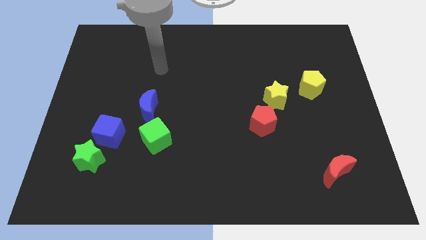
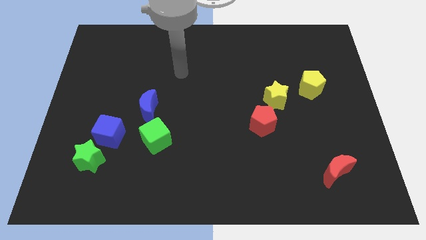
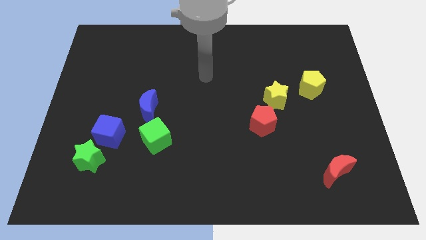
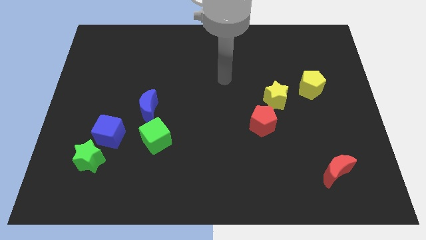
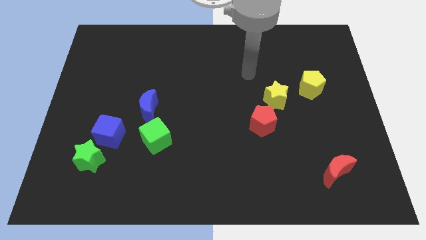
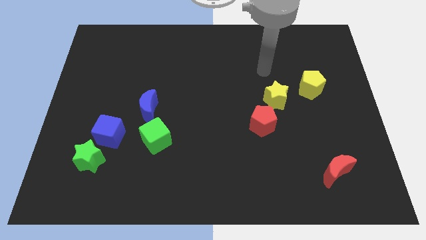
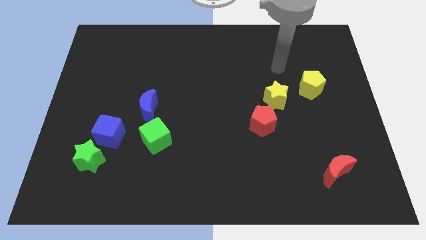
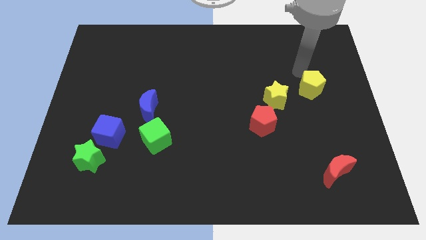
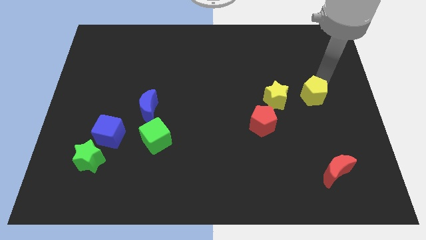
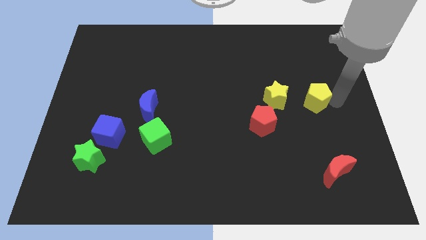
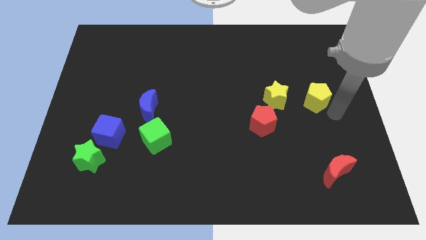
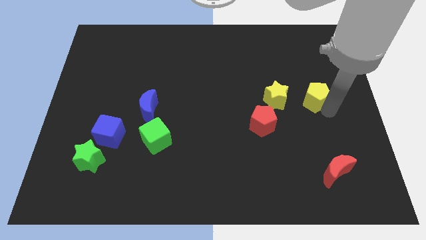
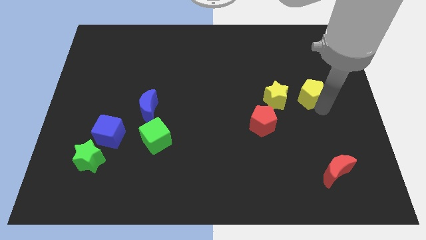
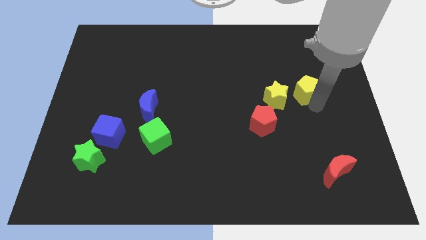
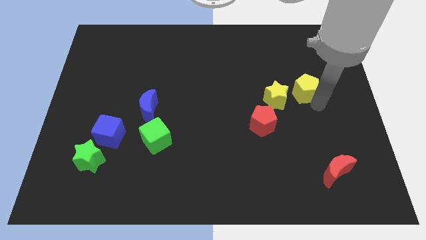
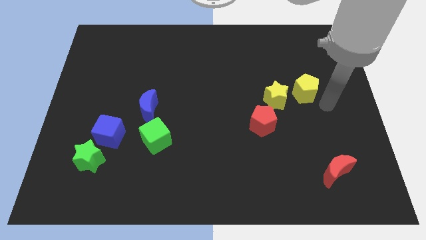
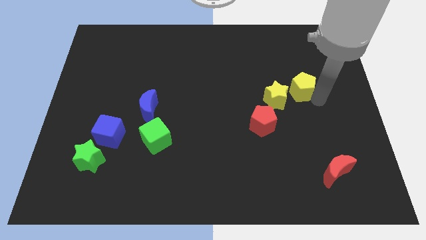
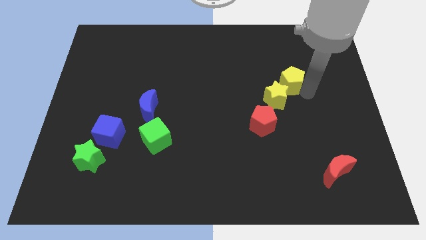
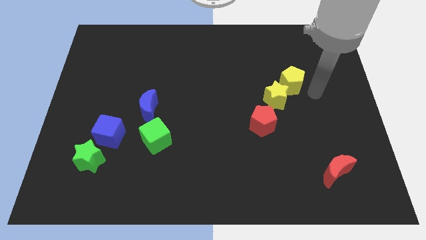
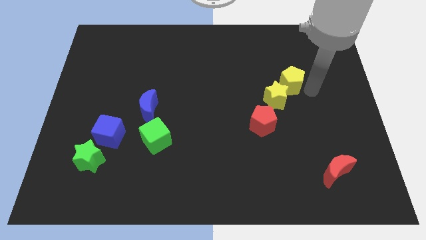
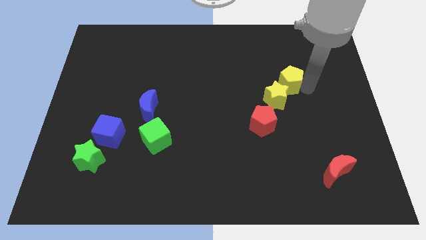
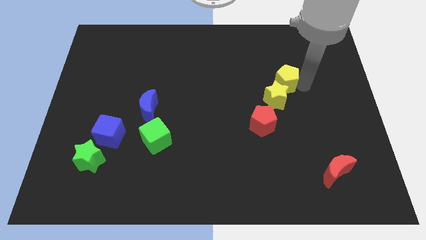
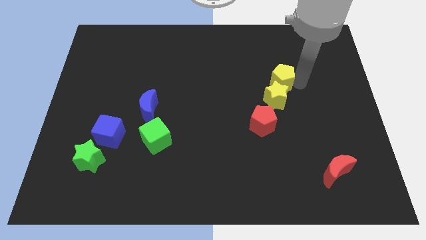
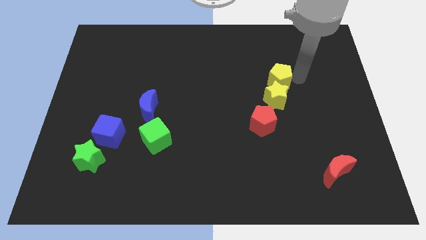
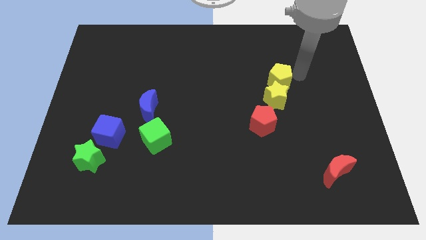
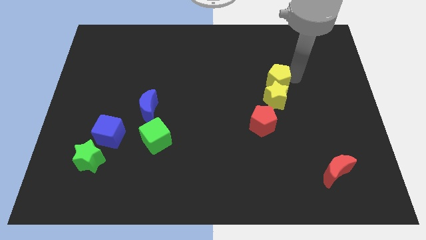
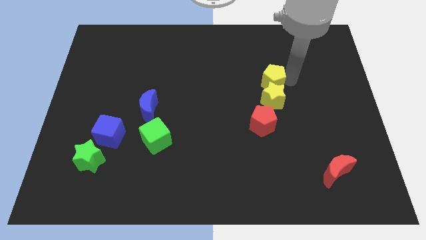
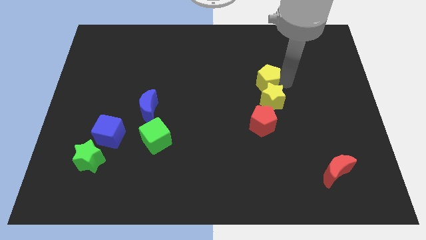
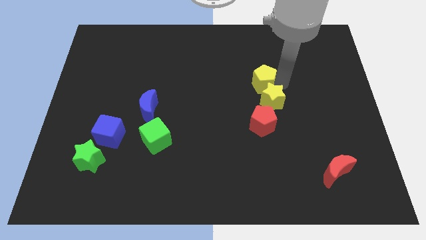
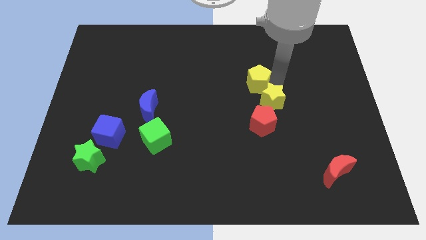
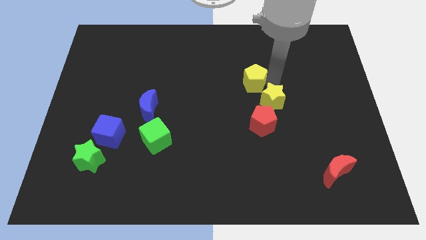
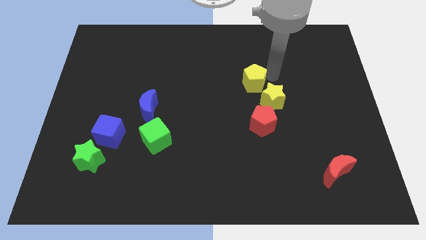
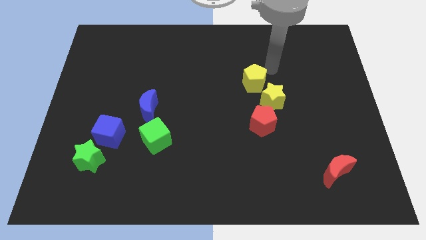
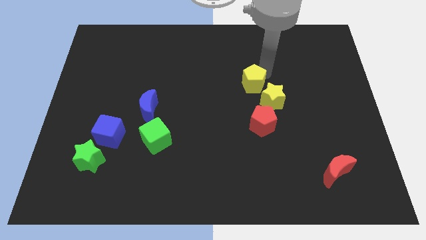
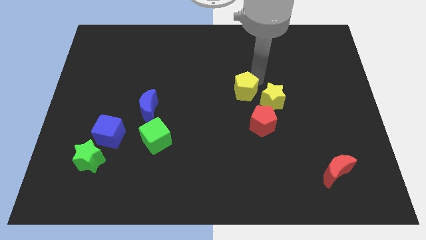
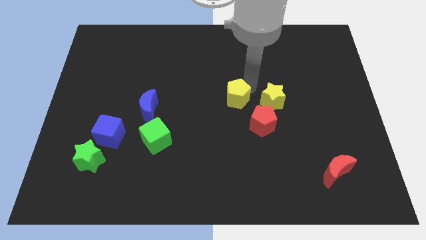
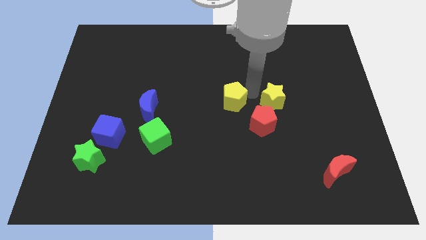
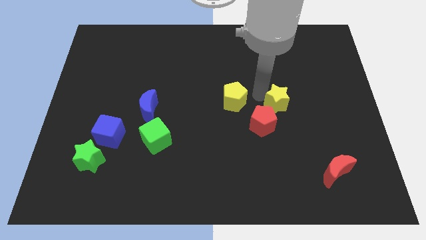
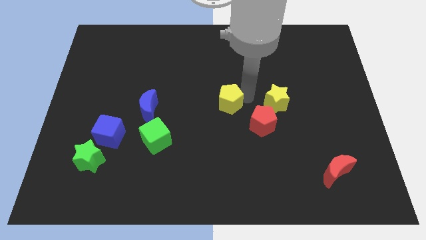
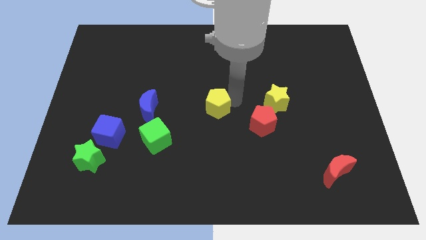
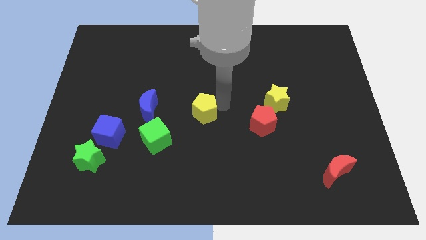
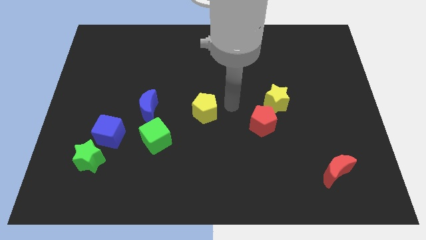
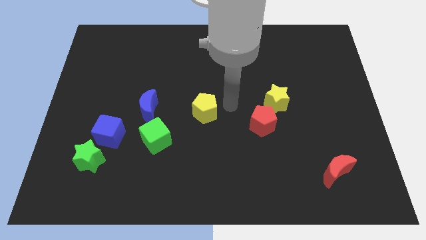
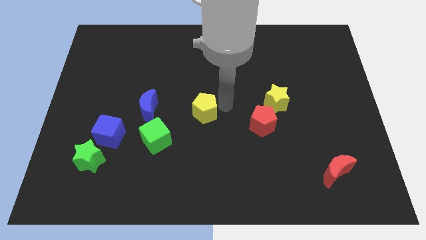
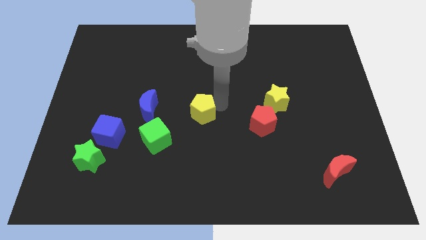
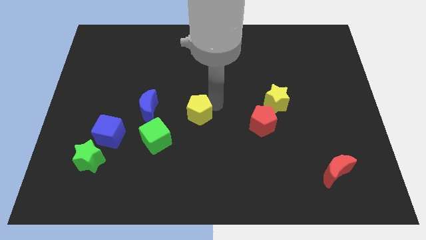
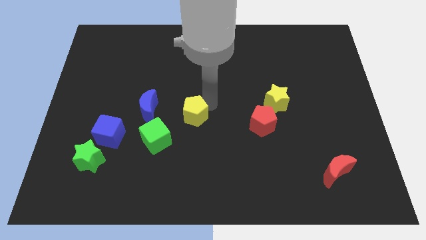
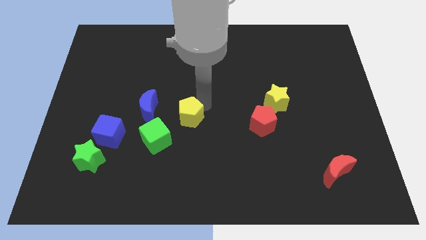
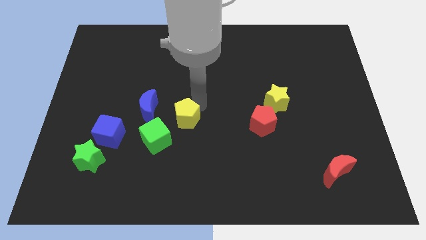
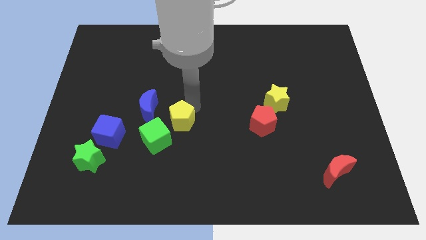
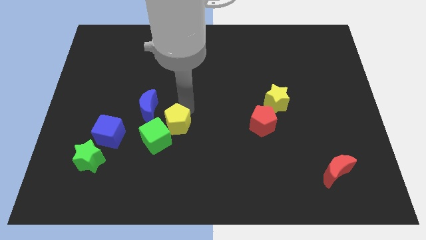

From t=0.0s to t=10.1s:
slide the yellow pentagon close to the green cube

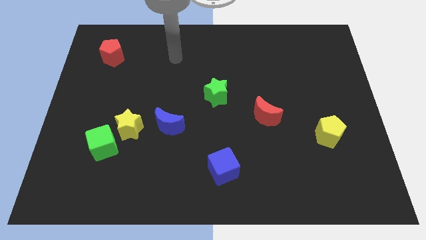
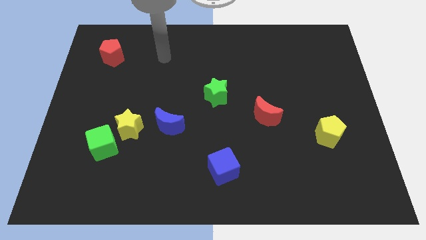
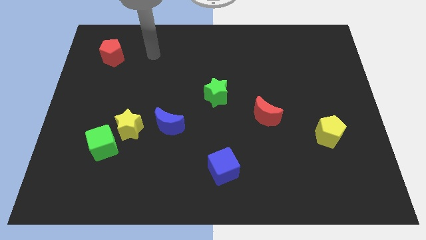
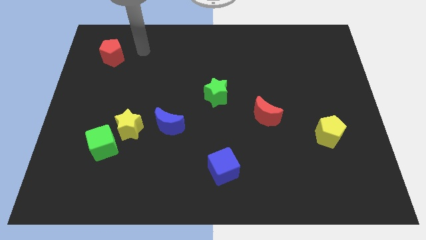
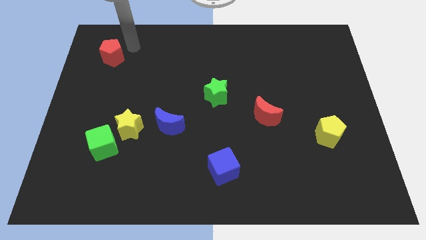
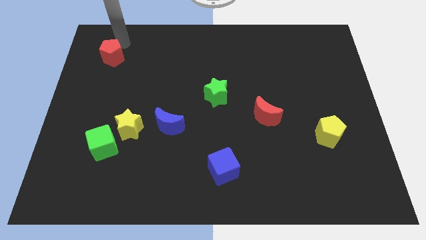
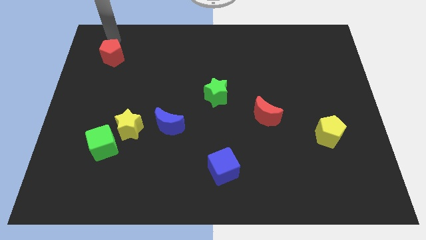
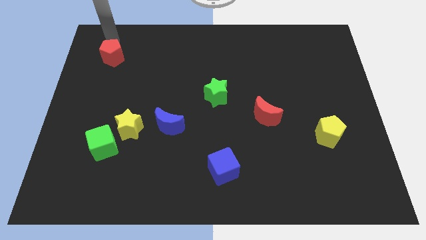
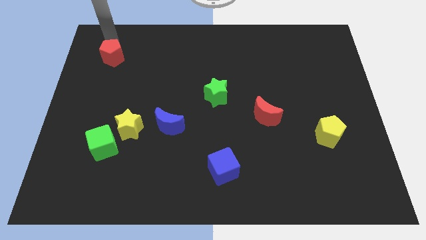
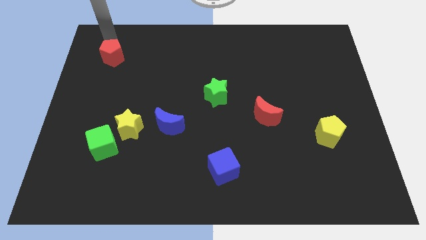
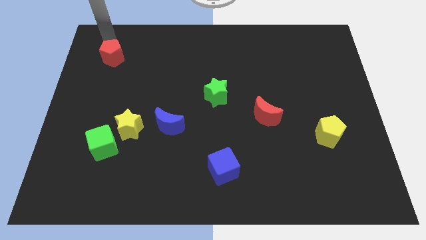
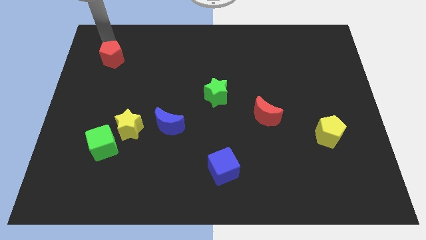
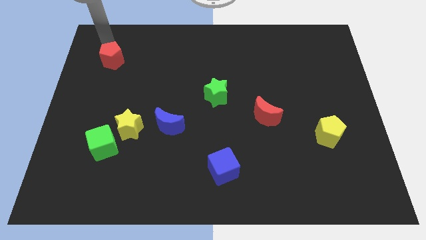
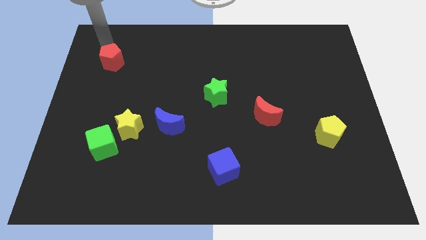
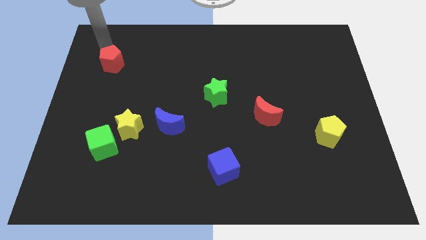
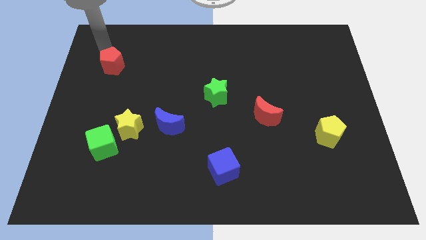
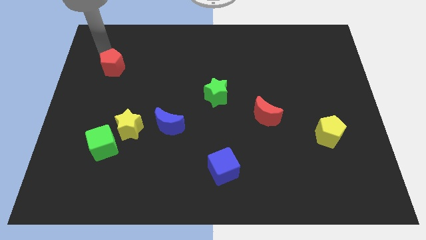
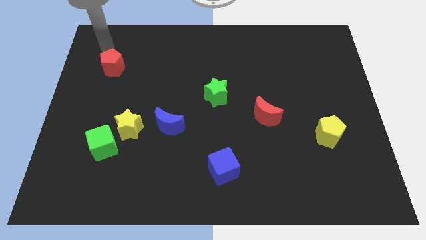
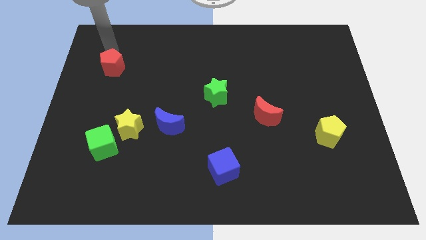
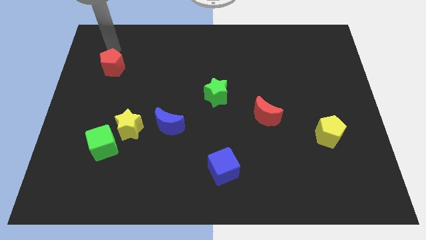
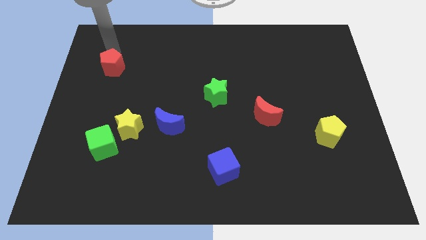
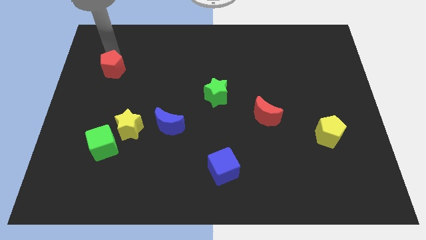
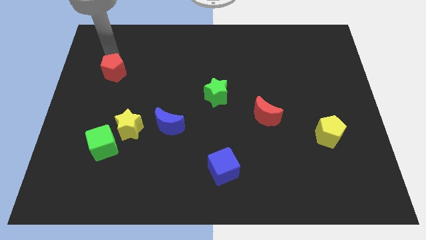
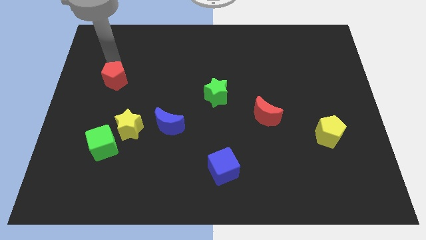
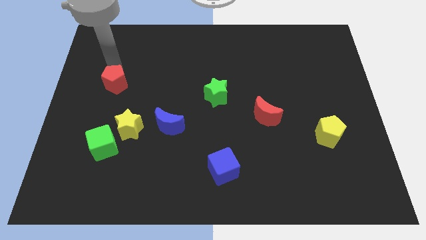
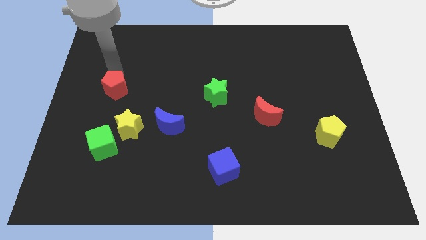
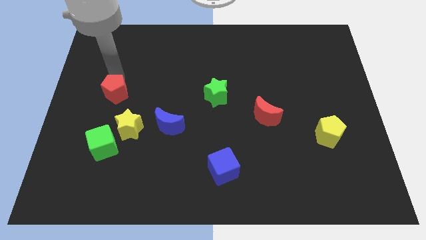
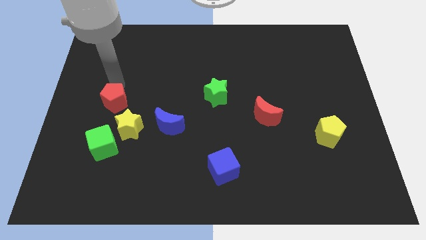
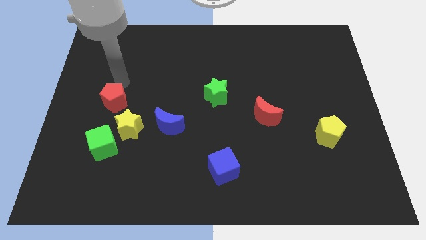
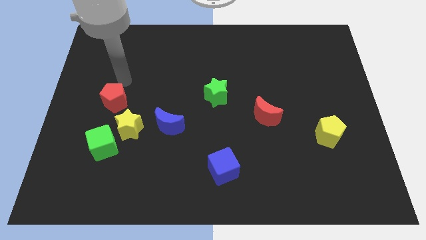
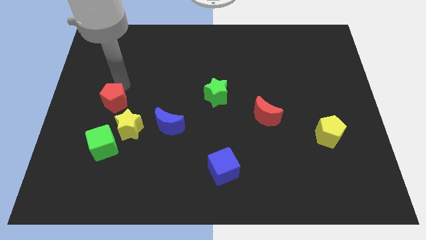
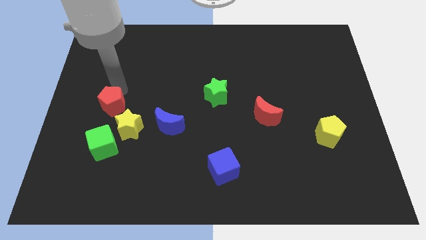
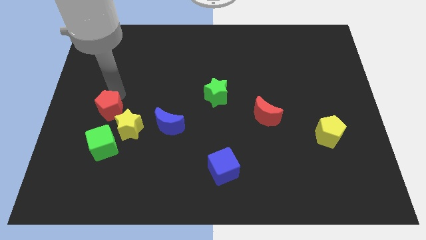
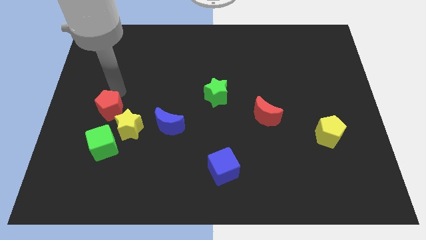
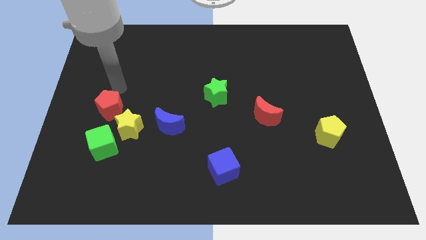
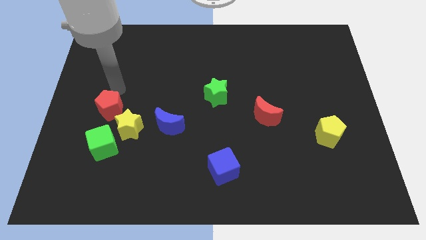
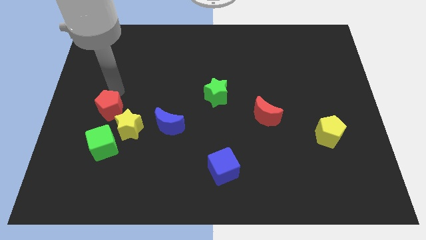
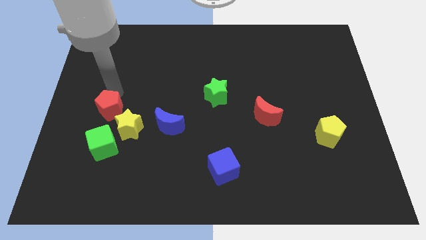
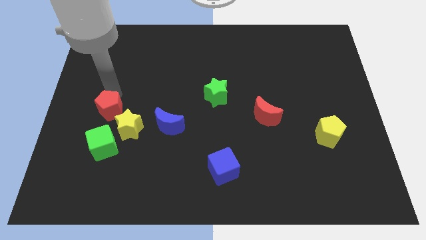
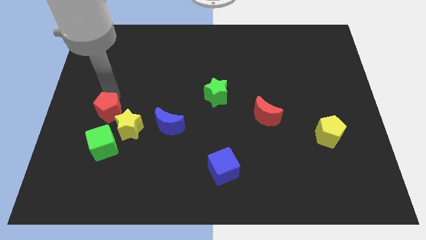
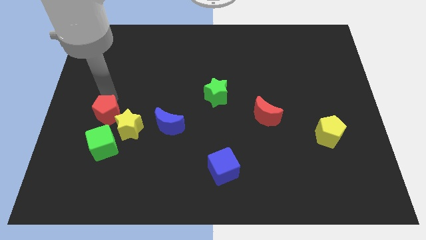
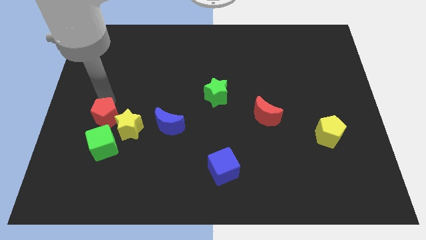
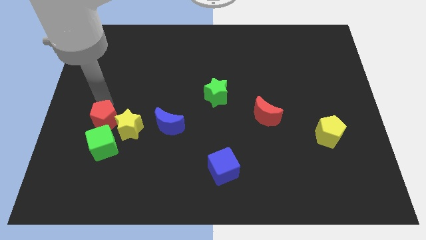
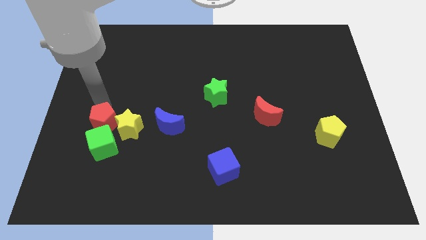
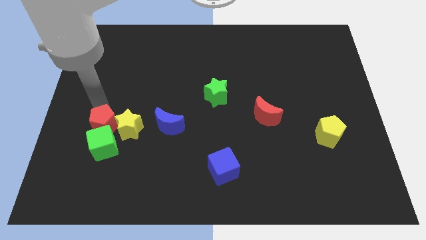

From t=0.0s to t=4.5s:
put the red pentagon towards the green cube
